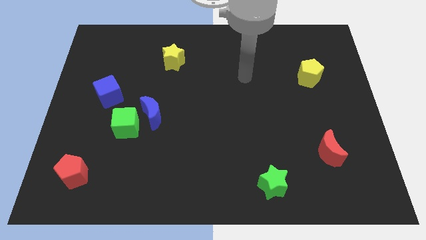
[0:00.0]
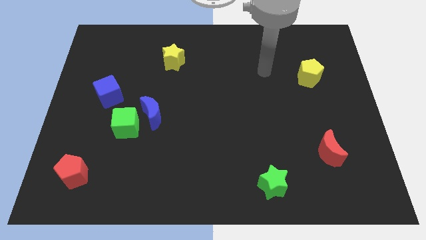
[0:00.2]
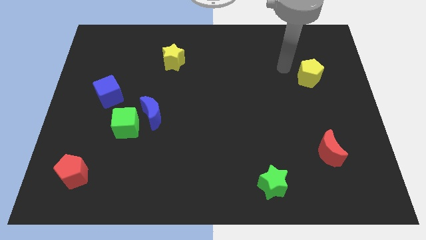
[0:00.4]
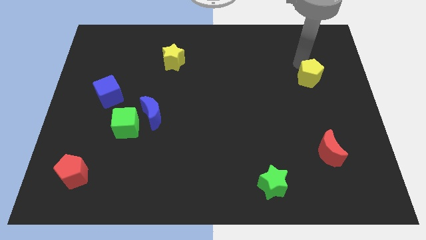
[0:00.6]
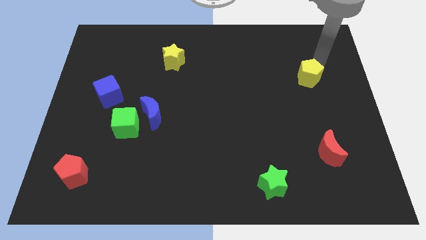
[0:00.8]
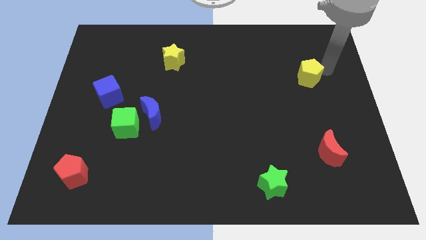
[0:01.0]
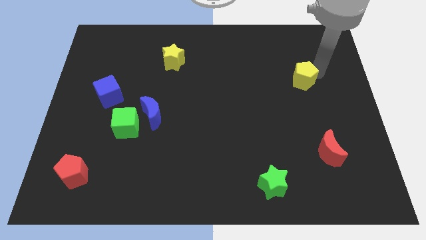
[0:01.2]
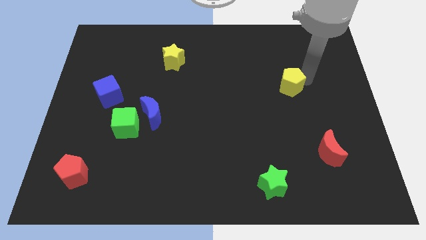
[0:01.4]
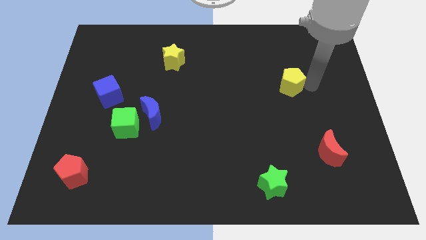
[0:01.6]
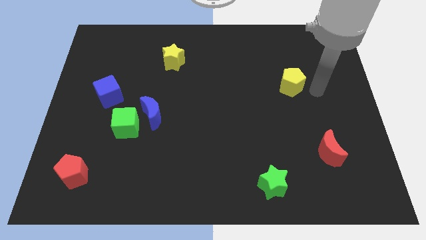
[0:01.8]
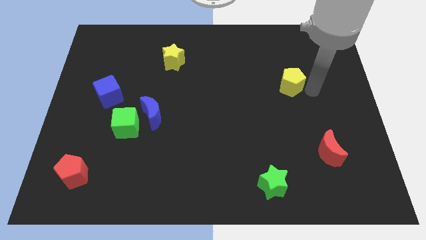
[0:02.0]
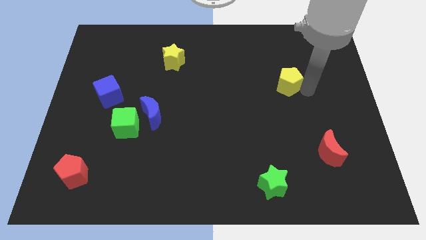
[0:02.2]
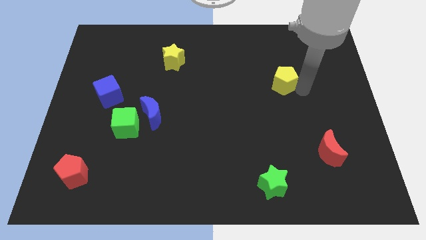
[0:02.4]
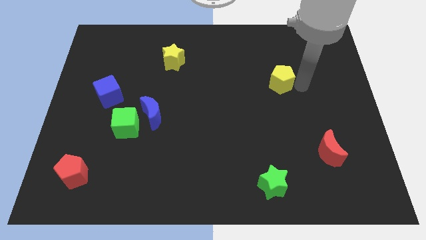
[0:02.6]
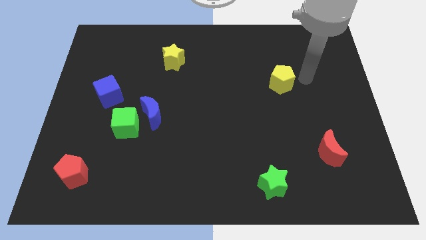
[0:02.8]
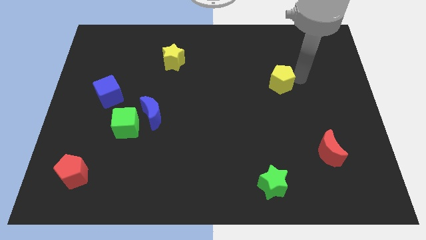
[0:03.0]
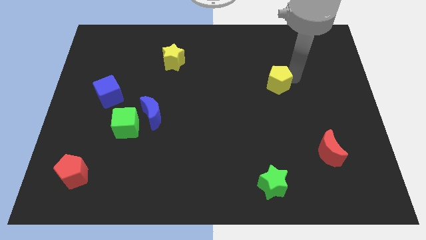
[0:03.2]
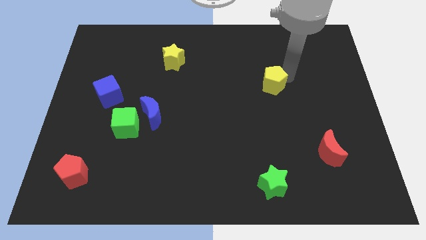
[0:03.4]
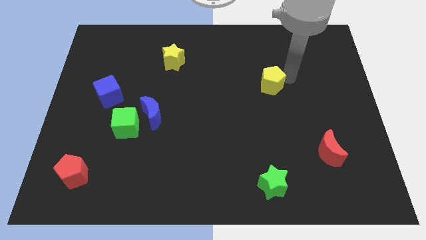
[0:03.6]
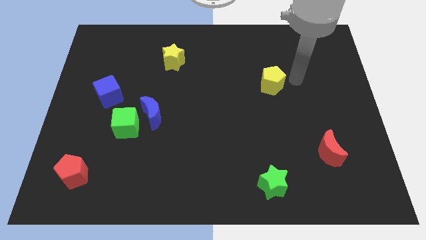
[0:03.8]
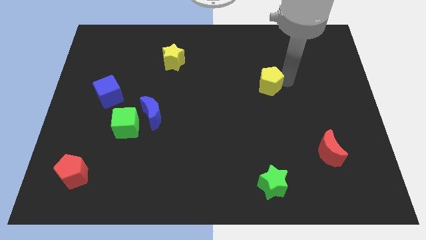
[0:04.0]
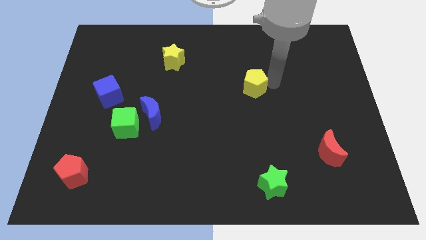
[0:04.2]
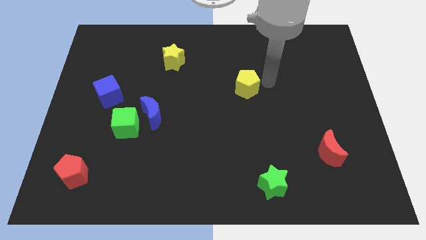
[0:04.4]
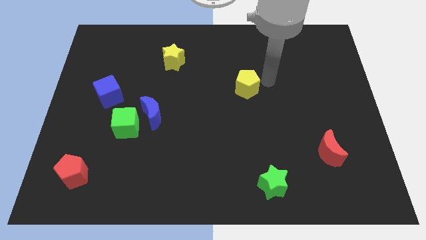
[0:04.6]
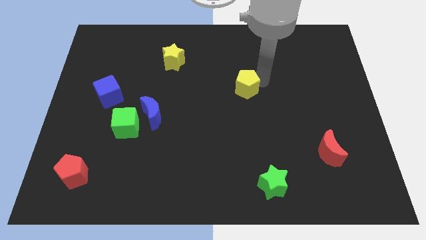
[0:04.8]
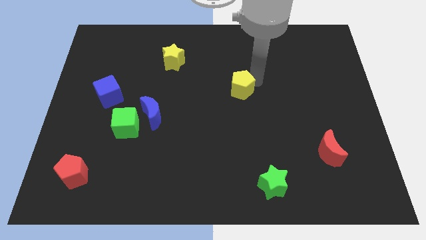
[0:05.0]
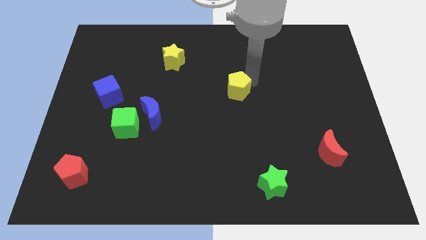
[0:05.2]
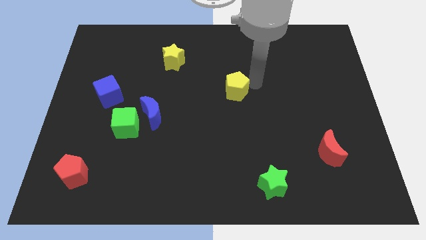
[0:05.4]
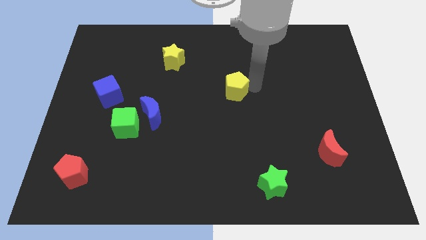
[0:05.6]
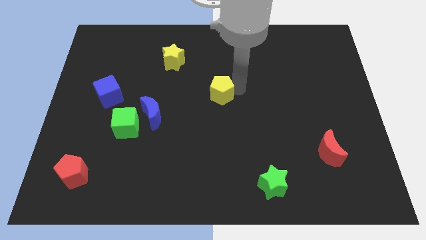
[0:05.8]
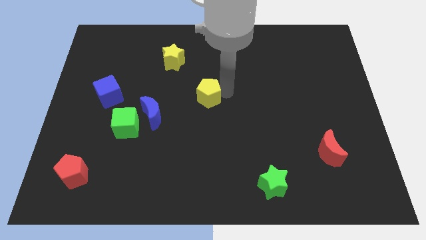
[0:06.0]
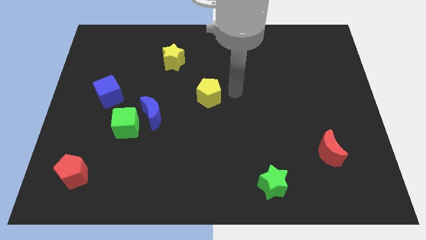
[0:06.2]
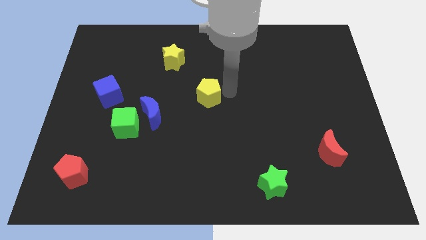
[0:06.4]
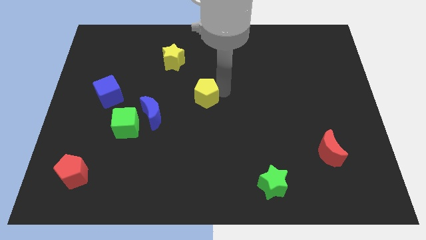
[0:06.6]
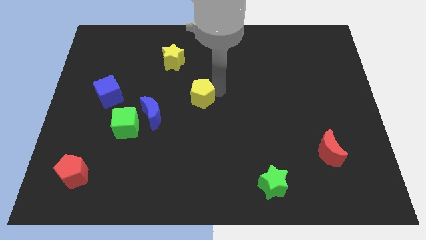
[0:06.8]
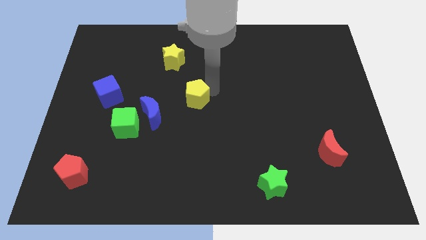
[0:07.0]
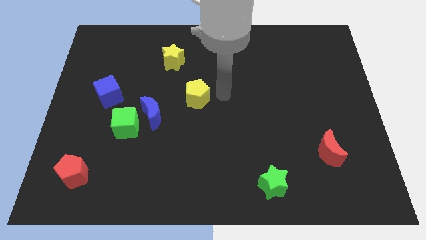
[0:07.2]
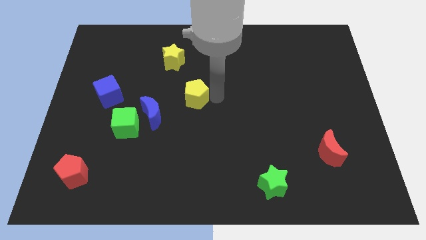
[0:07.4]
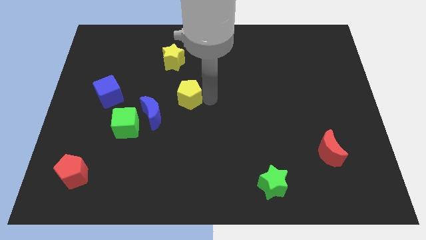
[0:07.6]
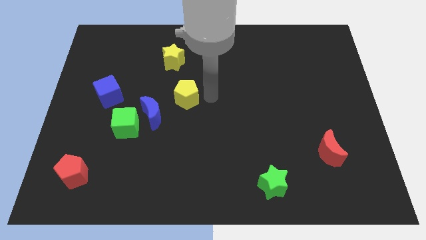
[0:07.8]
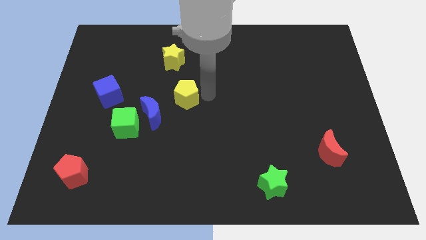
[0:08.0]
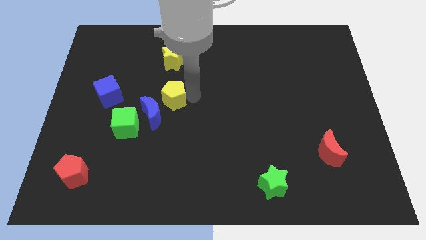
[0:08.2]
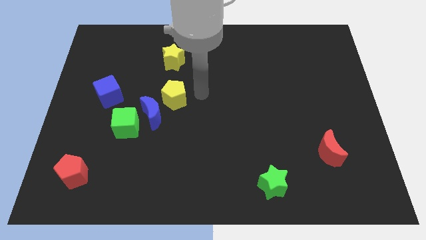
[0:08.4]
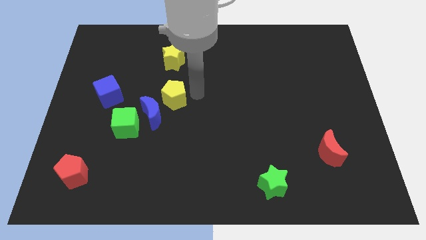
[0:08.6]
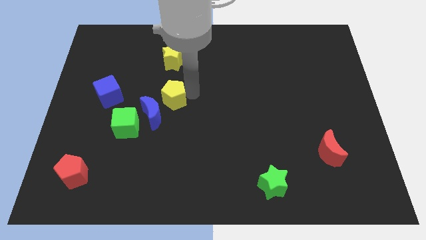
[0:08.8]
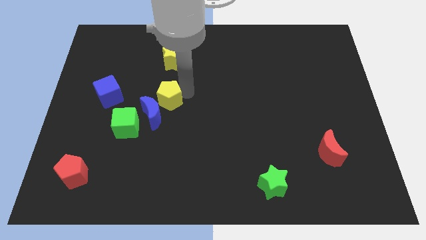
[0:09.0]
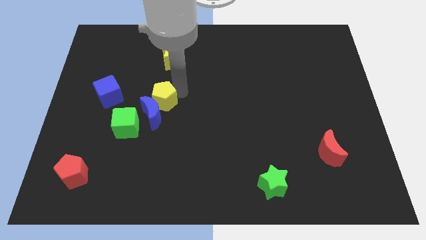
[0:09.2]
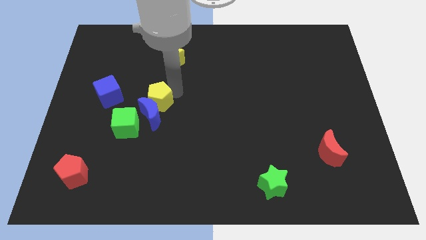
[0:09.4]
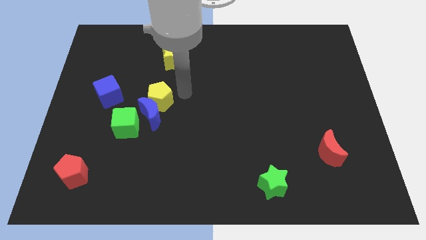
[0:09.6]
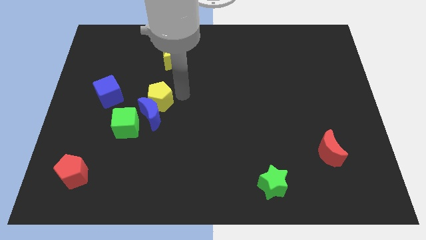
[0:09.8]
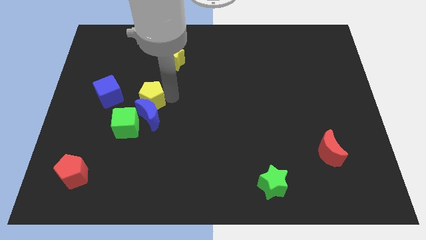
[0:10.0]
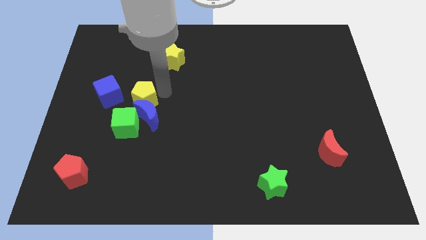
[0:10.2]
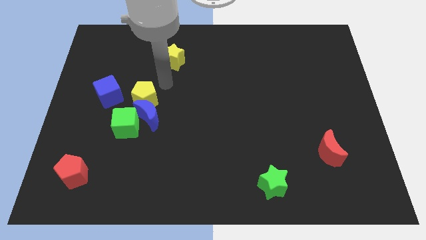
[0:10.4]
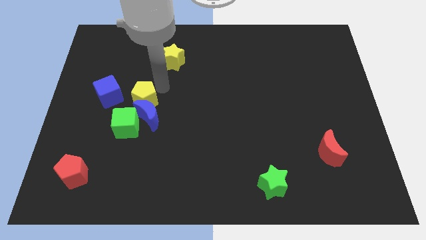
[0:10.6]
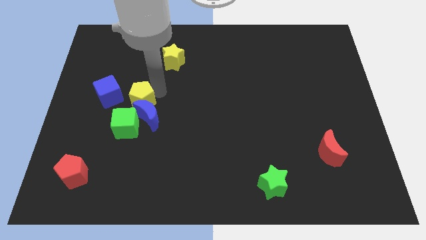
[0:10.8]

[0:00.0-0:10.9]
slide the yellow pentagon to the bottom right side of the blue cube
